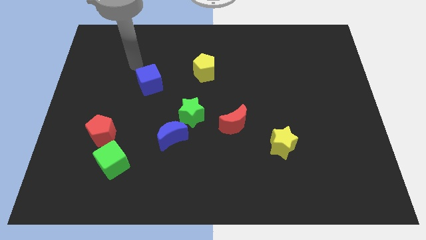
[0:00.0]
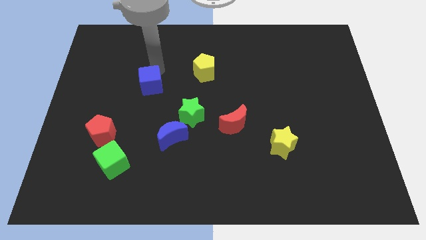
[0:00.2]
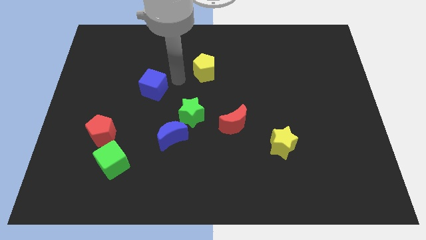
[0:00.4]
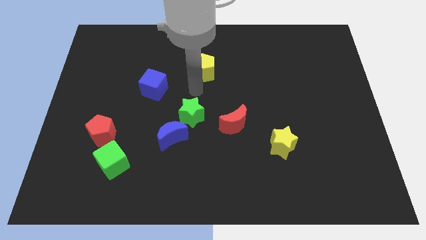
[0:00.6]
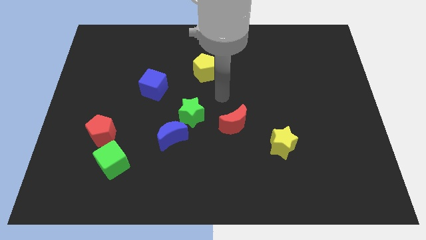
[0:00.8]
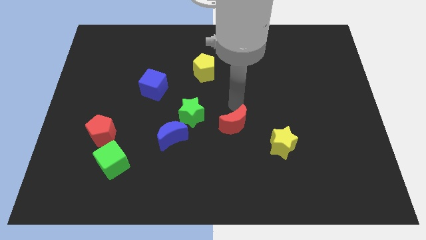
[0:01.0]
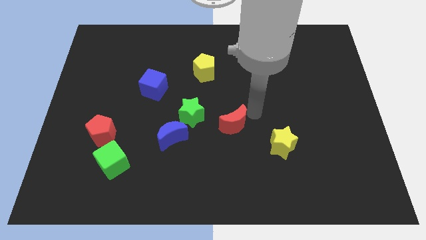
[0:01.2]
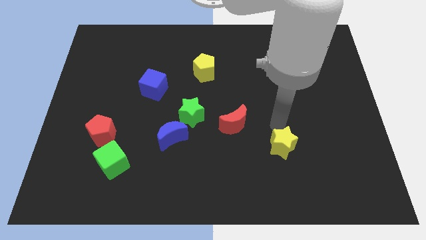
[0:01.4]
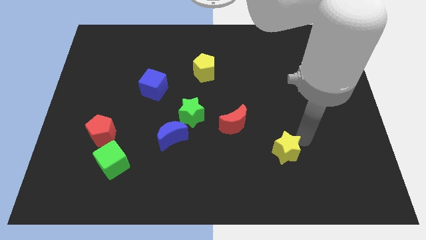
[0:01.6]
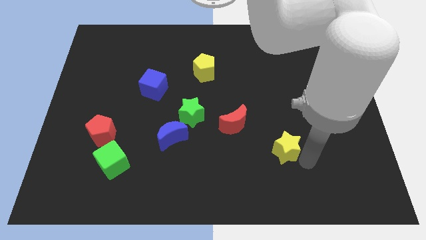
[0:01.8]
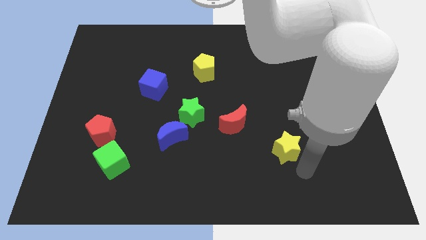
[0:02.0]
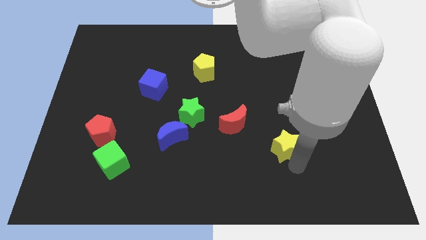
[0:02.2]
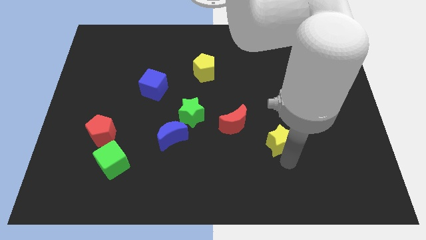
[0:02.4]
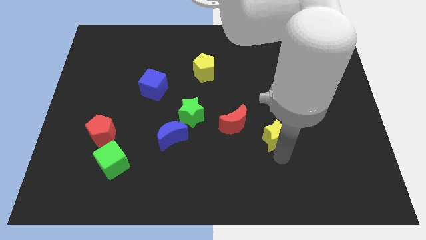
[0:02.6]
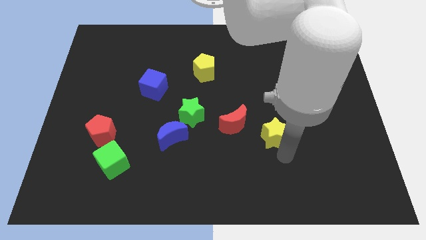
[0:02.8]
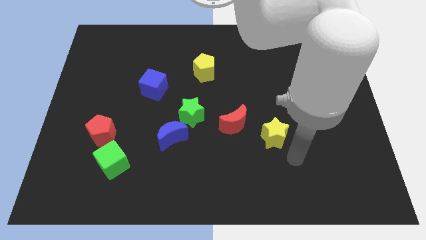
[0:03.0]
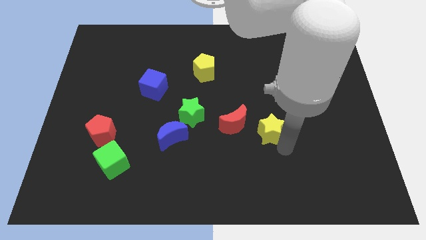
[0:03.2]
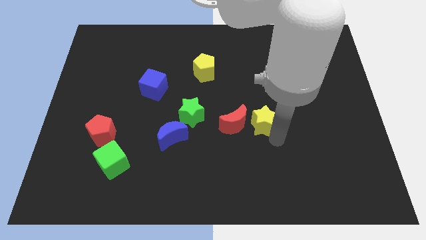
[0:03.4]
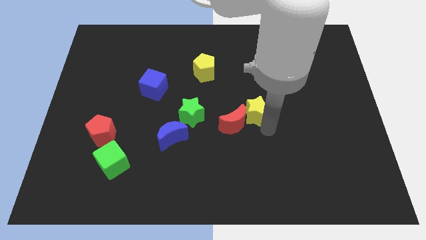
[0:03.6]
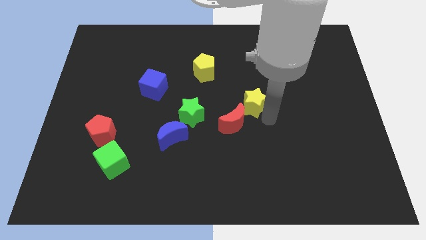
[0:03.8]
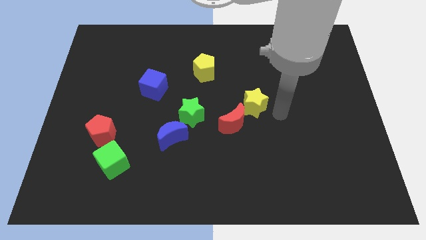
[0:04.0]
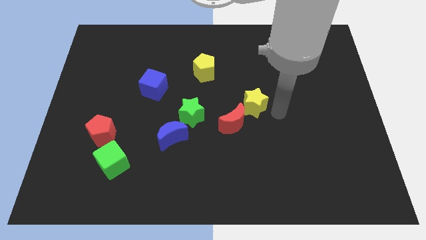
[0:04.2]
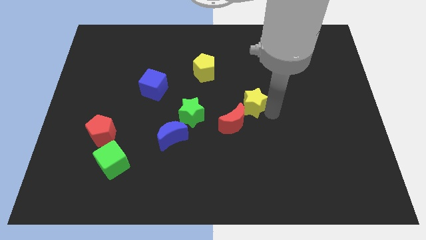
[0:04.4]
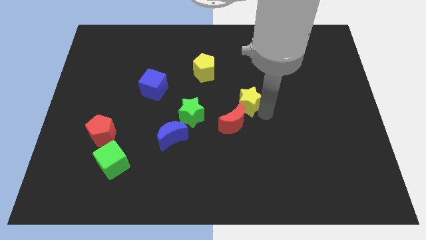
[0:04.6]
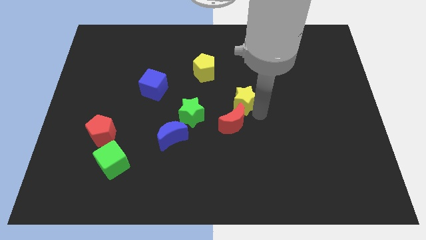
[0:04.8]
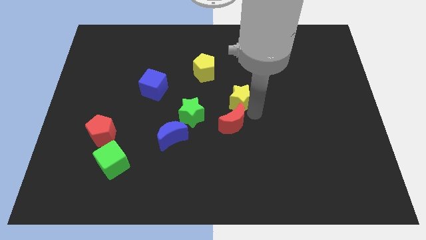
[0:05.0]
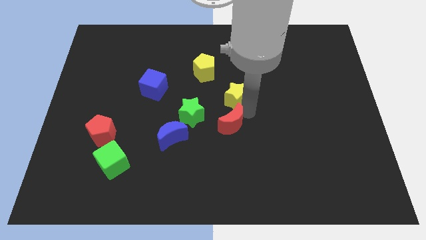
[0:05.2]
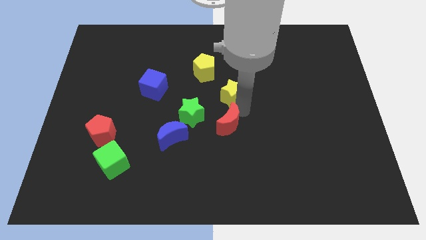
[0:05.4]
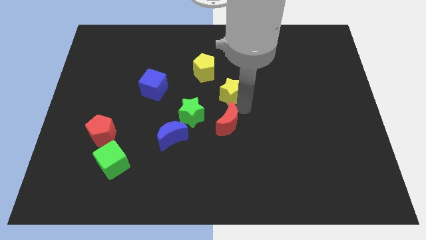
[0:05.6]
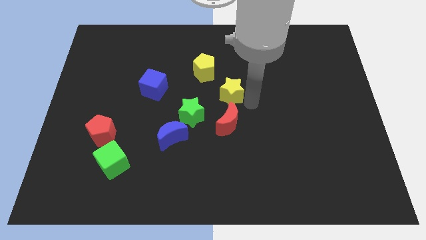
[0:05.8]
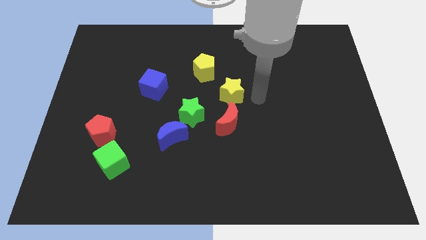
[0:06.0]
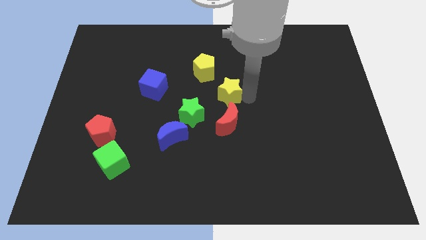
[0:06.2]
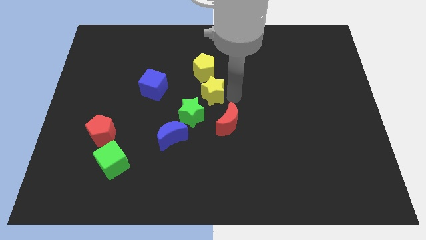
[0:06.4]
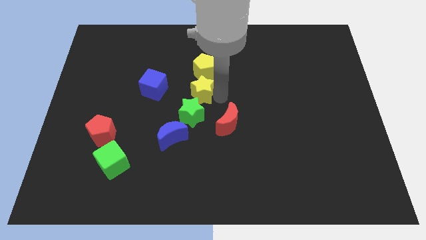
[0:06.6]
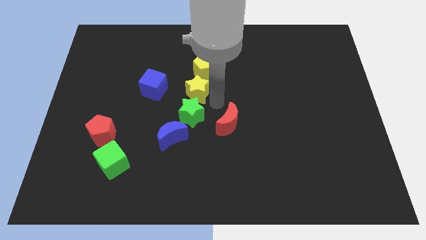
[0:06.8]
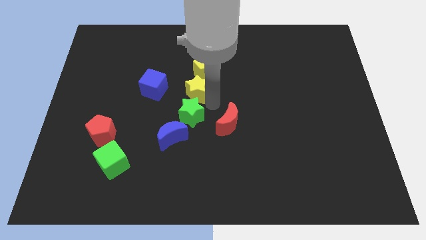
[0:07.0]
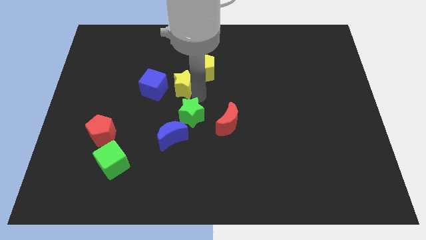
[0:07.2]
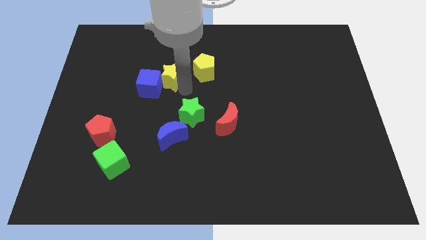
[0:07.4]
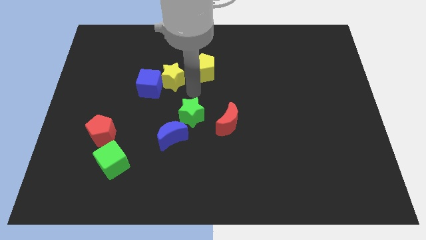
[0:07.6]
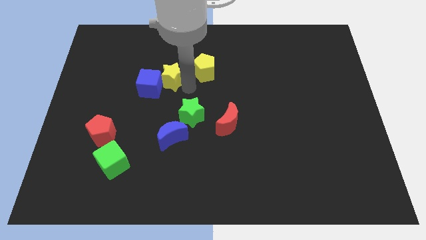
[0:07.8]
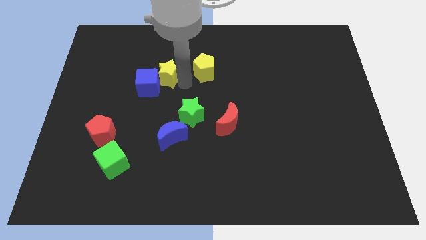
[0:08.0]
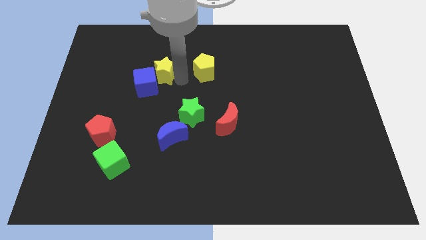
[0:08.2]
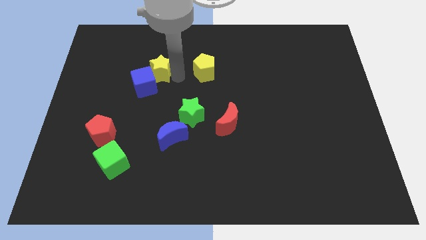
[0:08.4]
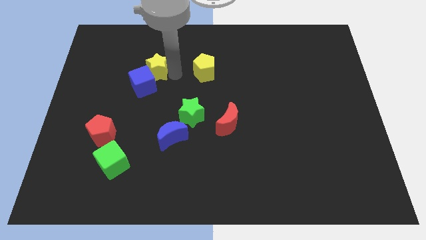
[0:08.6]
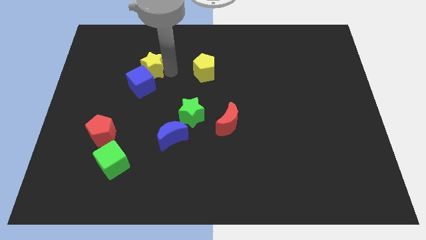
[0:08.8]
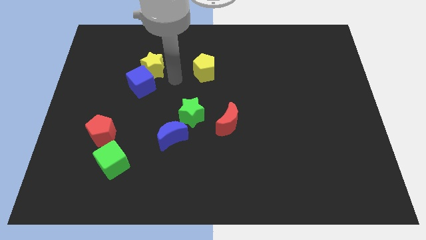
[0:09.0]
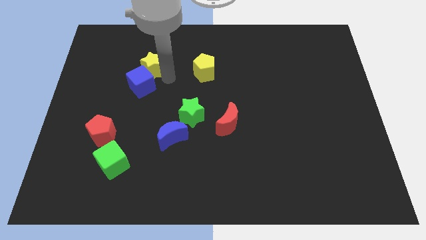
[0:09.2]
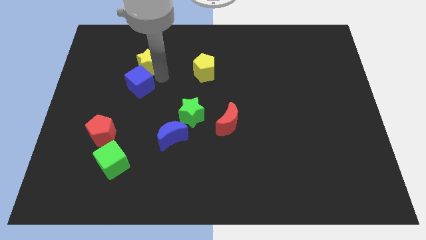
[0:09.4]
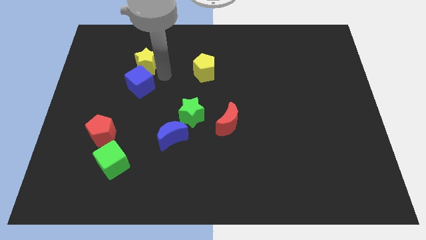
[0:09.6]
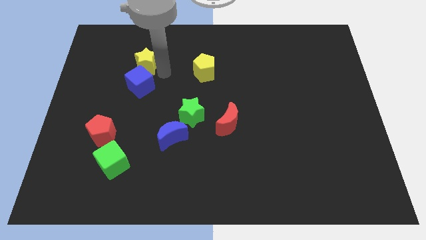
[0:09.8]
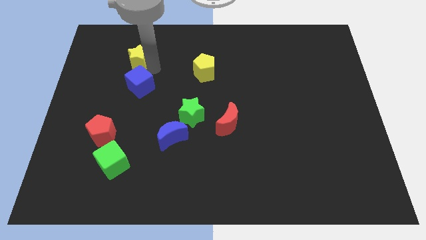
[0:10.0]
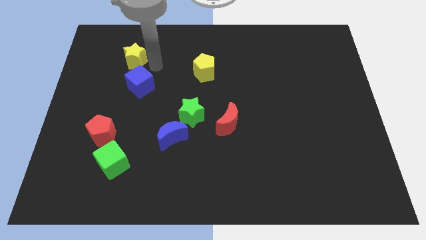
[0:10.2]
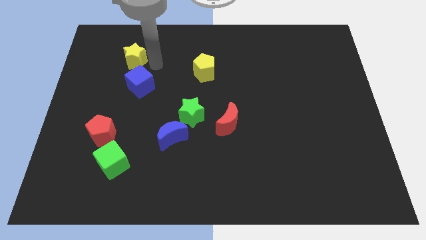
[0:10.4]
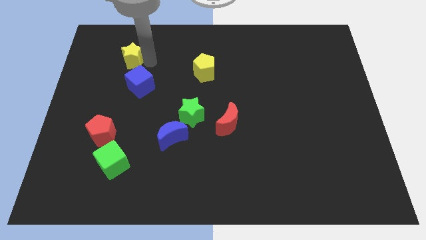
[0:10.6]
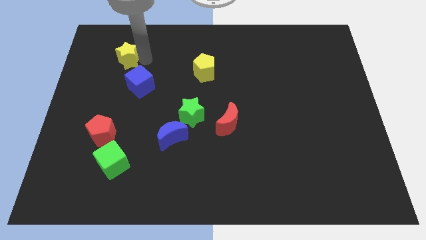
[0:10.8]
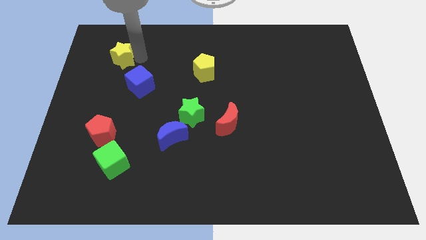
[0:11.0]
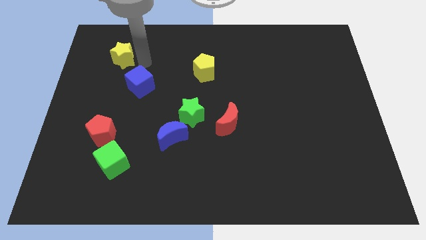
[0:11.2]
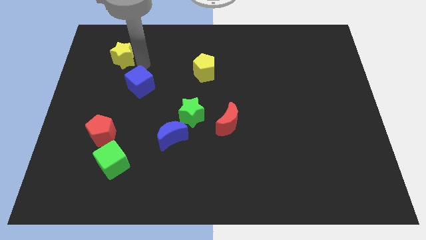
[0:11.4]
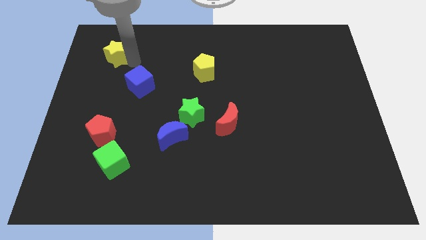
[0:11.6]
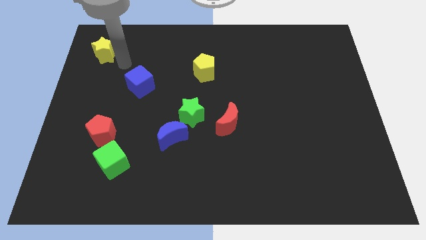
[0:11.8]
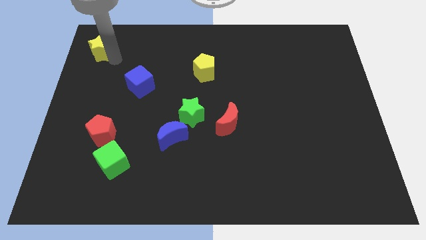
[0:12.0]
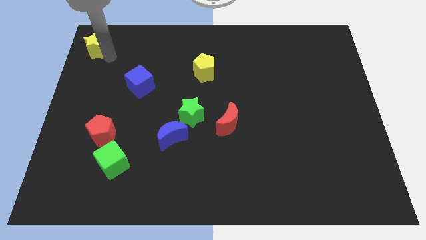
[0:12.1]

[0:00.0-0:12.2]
put the yellow star to the top left corner
